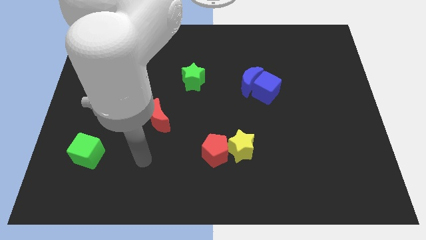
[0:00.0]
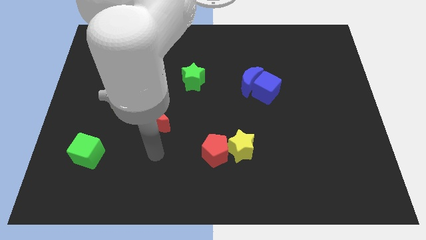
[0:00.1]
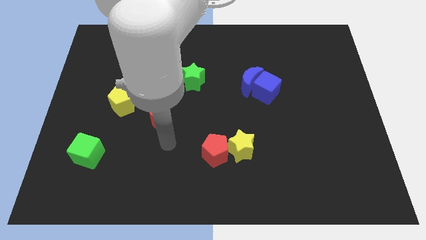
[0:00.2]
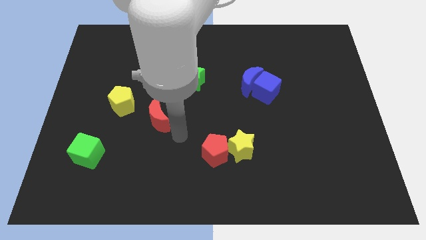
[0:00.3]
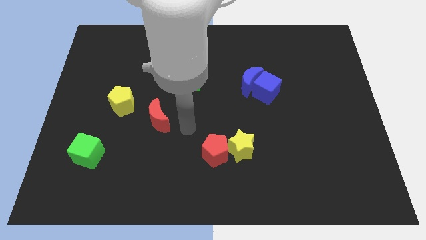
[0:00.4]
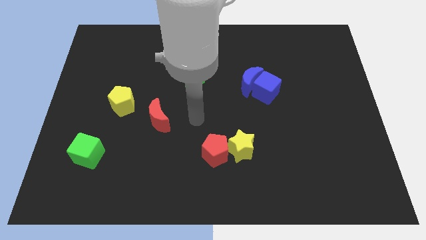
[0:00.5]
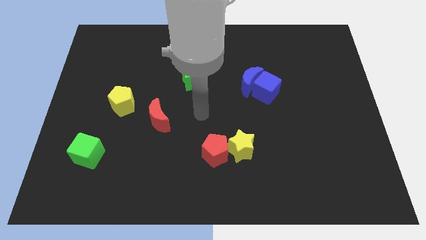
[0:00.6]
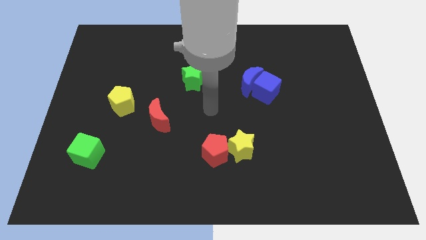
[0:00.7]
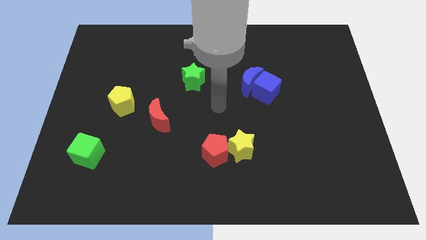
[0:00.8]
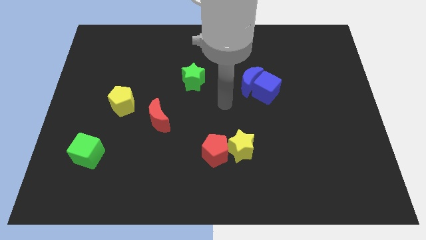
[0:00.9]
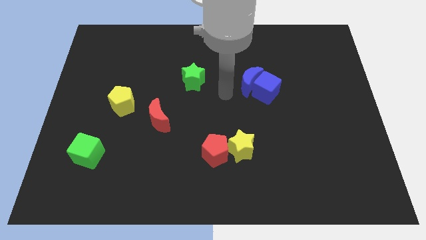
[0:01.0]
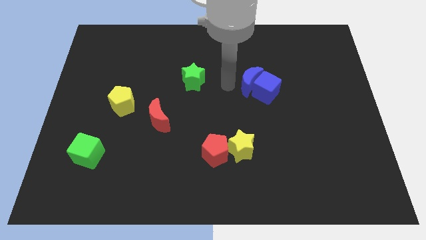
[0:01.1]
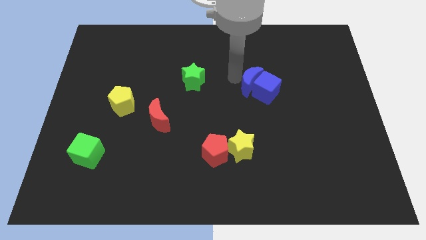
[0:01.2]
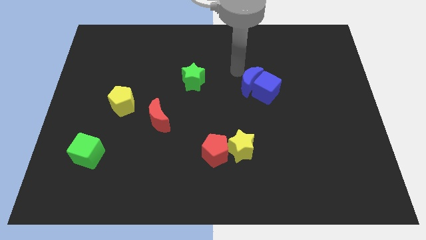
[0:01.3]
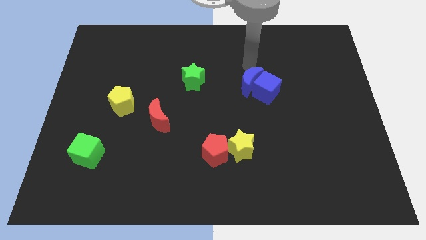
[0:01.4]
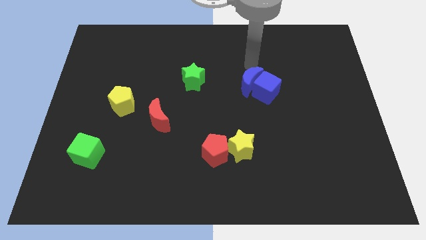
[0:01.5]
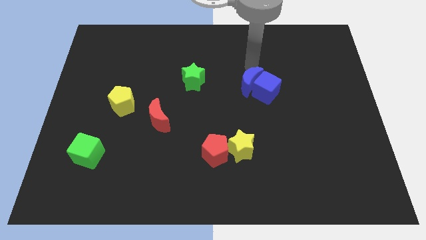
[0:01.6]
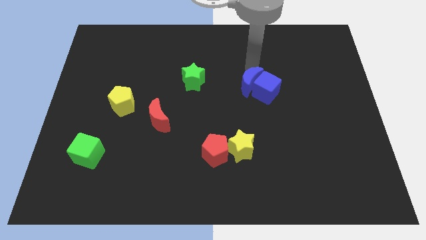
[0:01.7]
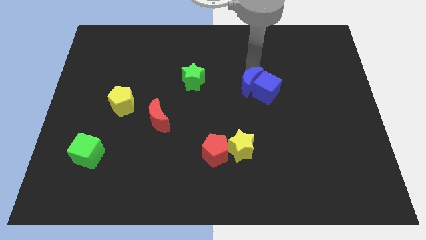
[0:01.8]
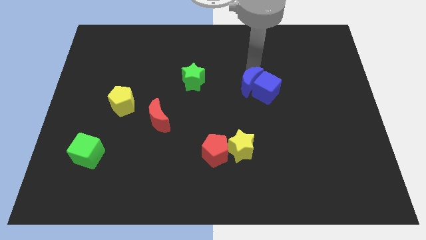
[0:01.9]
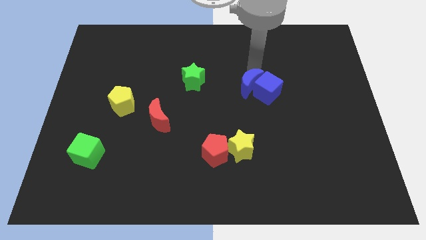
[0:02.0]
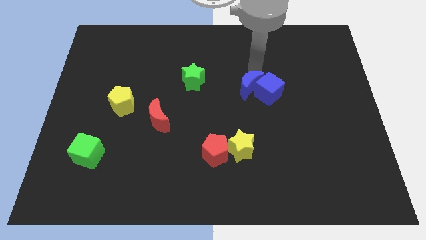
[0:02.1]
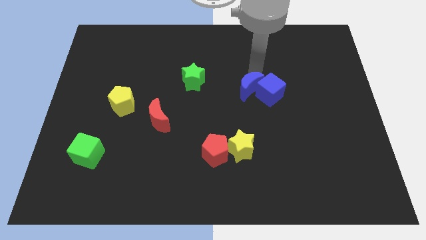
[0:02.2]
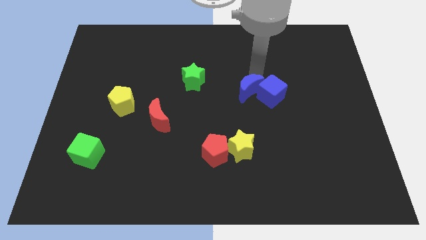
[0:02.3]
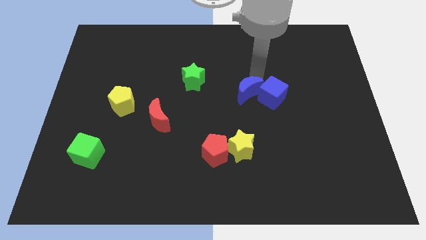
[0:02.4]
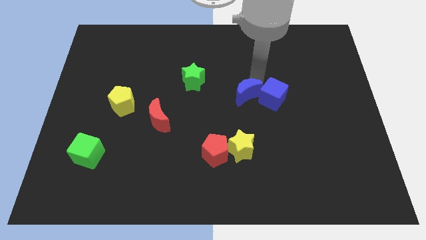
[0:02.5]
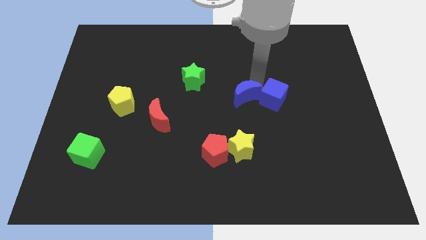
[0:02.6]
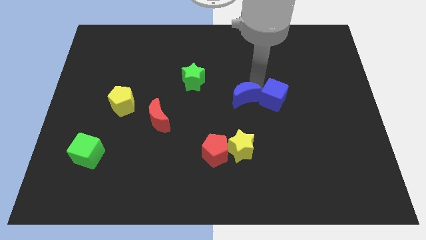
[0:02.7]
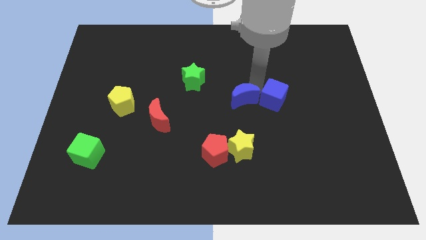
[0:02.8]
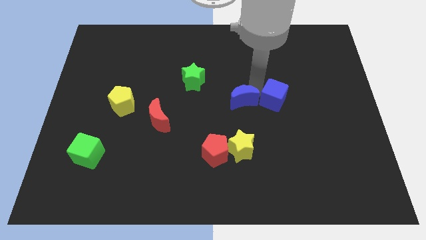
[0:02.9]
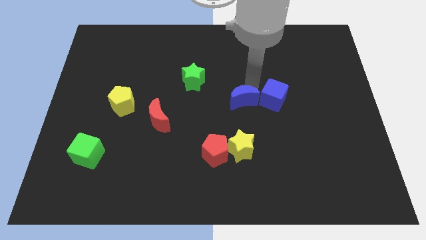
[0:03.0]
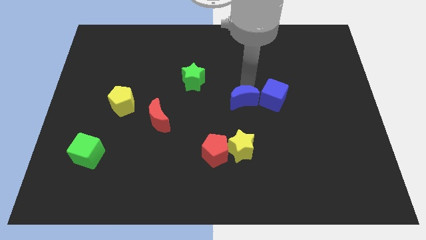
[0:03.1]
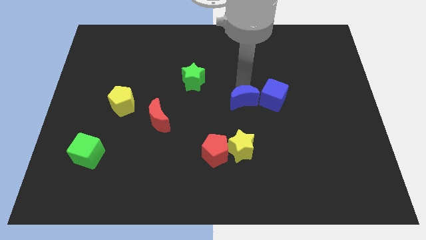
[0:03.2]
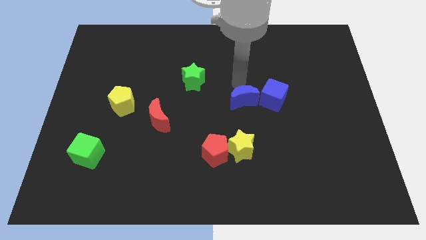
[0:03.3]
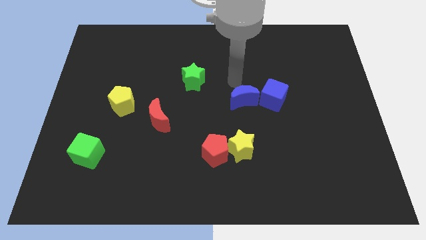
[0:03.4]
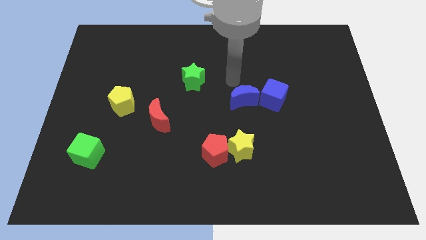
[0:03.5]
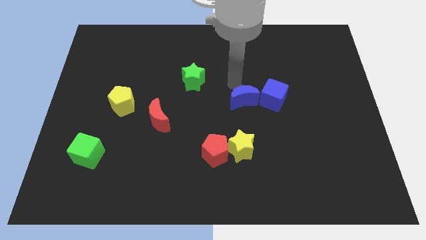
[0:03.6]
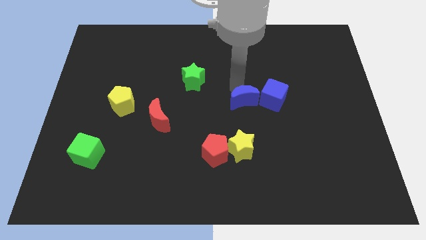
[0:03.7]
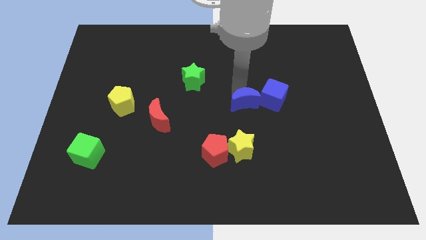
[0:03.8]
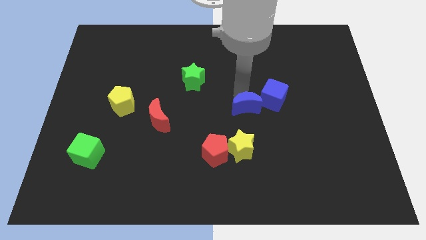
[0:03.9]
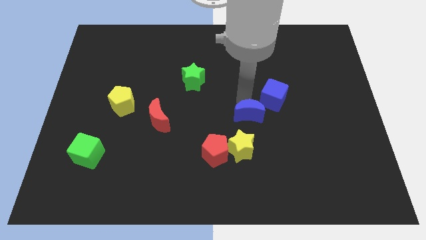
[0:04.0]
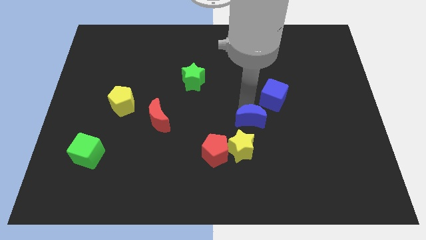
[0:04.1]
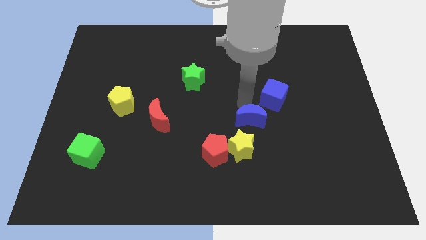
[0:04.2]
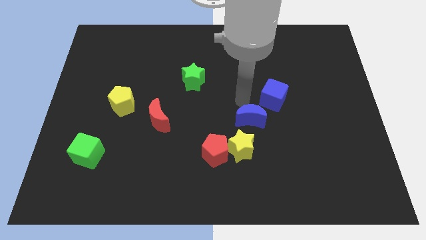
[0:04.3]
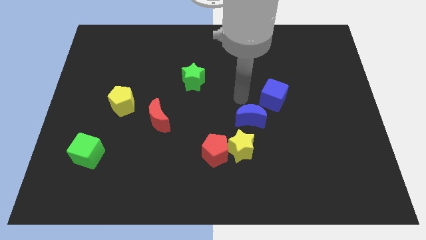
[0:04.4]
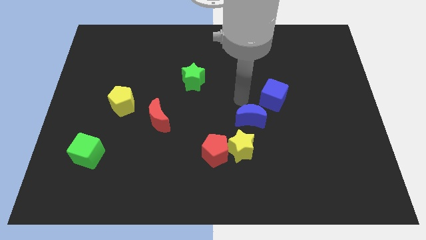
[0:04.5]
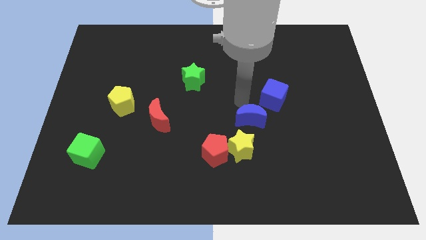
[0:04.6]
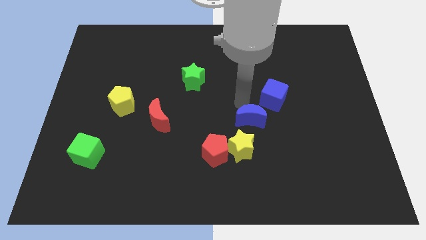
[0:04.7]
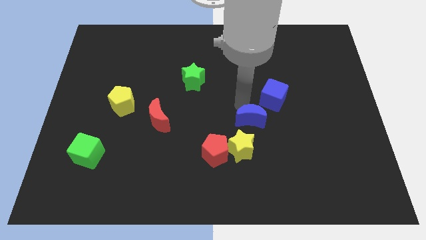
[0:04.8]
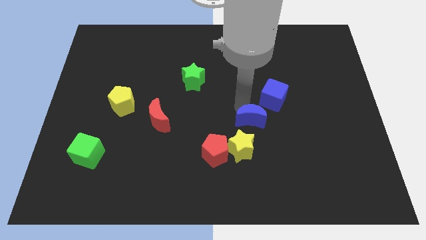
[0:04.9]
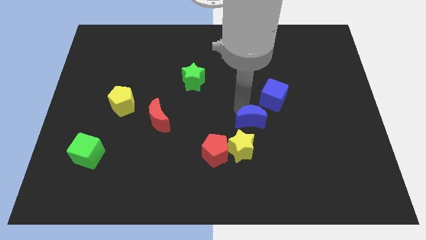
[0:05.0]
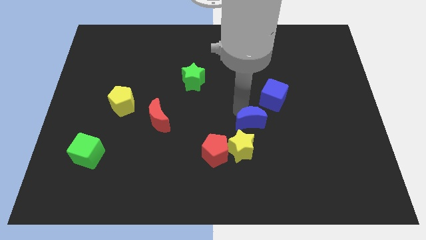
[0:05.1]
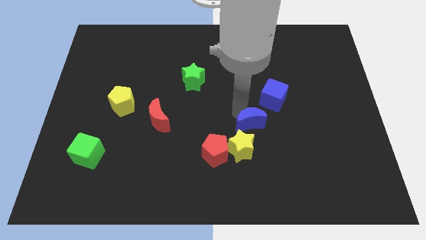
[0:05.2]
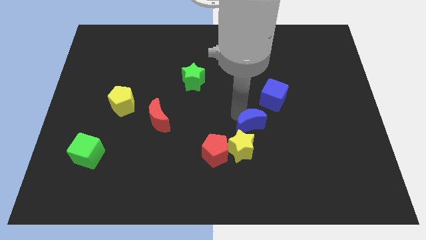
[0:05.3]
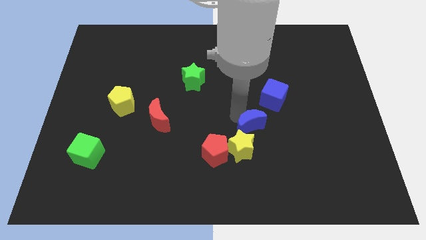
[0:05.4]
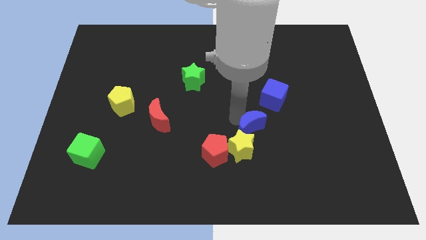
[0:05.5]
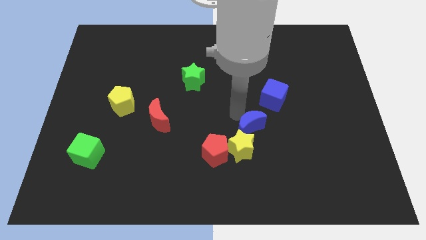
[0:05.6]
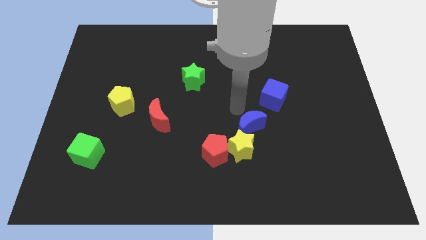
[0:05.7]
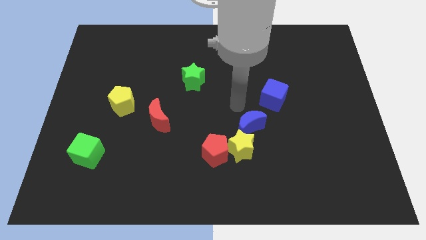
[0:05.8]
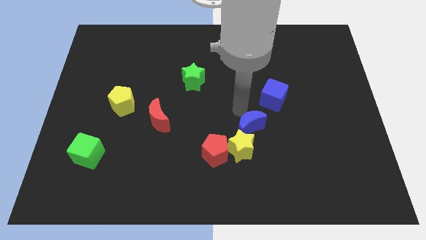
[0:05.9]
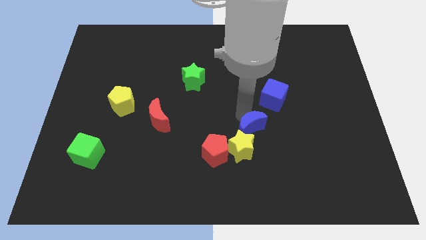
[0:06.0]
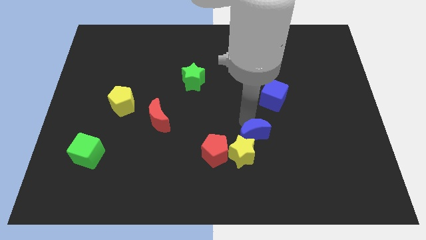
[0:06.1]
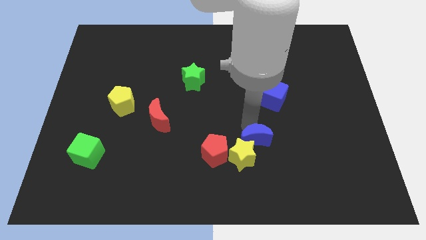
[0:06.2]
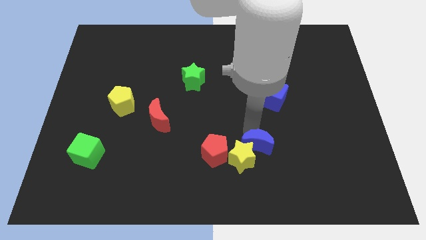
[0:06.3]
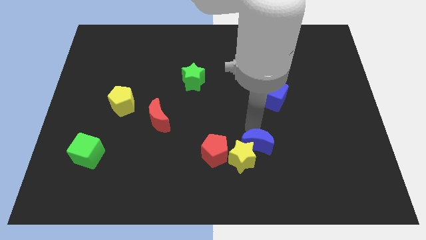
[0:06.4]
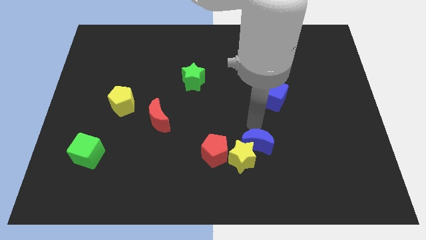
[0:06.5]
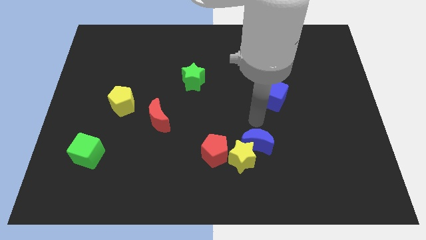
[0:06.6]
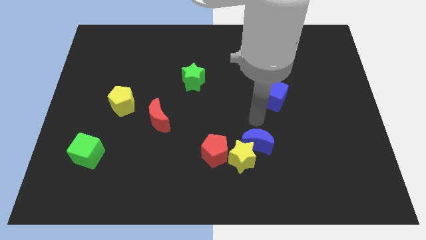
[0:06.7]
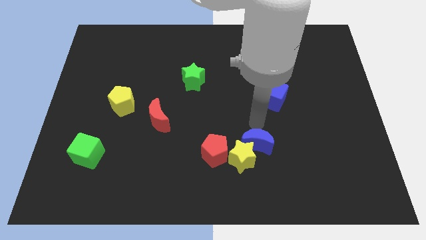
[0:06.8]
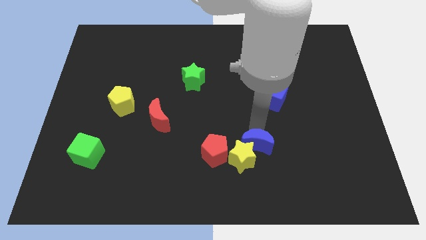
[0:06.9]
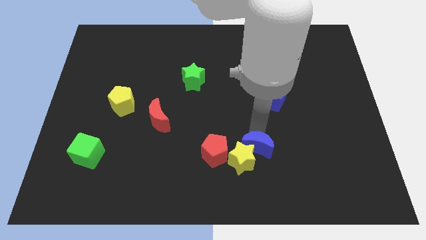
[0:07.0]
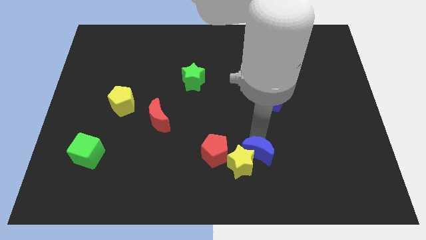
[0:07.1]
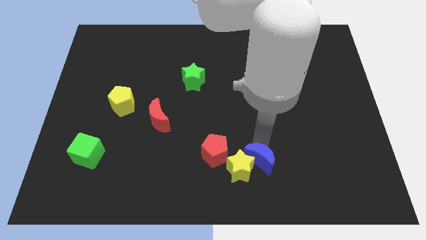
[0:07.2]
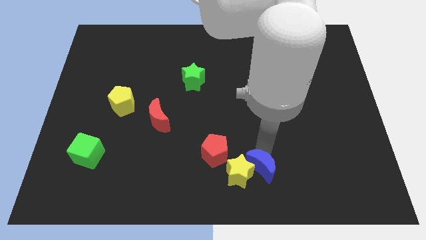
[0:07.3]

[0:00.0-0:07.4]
move the blue moon to the bottom right of the red pentagon

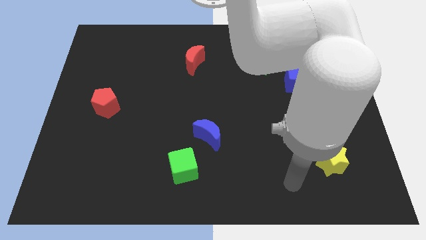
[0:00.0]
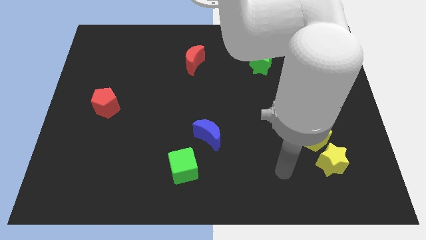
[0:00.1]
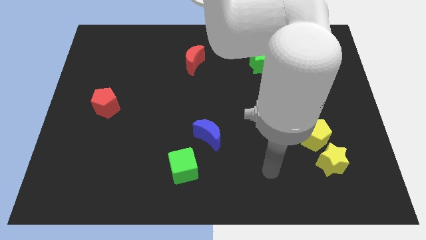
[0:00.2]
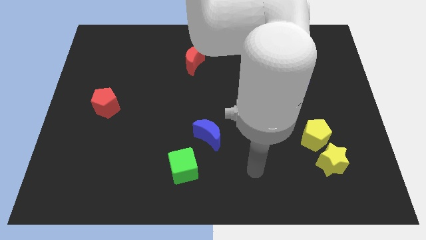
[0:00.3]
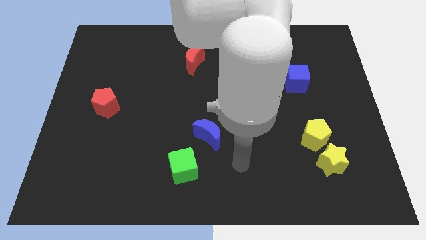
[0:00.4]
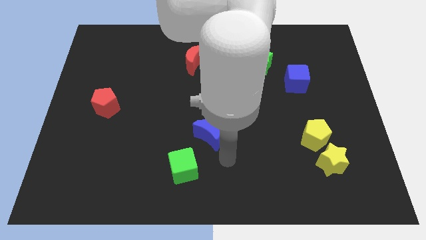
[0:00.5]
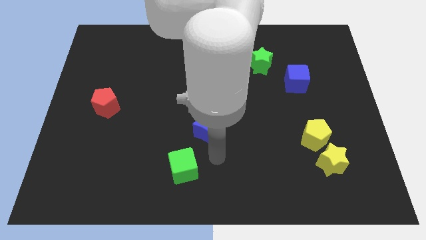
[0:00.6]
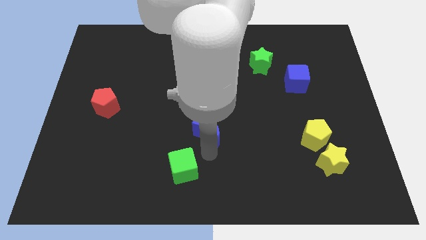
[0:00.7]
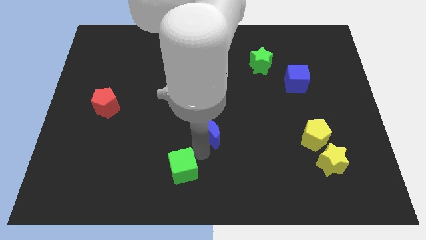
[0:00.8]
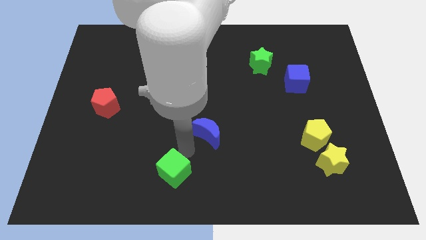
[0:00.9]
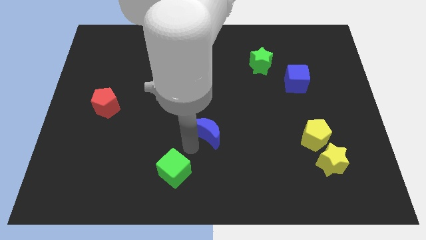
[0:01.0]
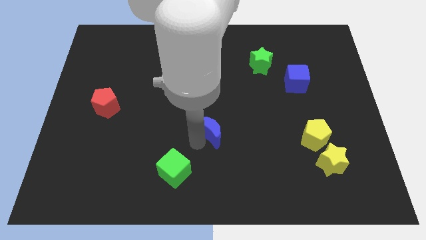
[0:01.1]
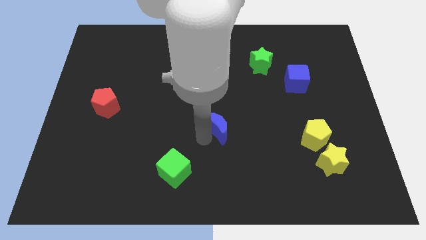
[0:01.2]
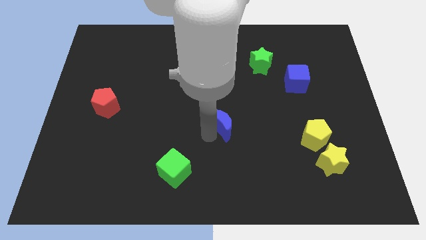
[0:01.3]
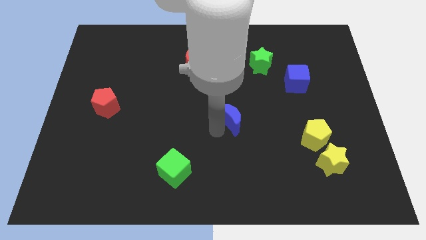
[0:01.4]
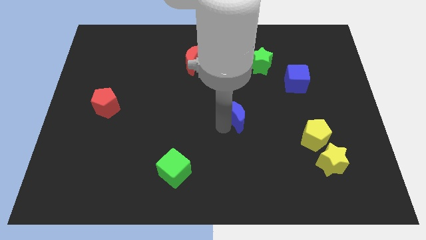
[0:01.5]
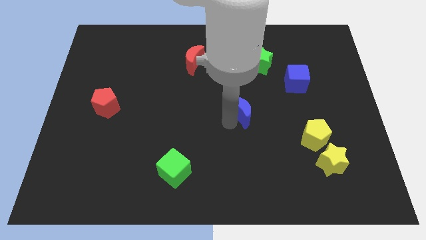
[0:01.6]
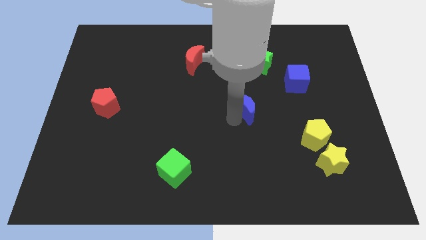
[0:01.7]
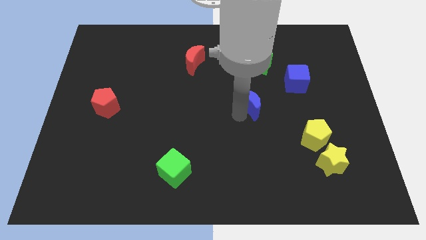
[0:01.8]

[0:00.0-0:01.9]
slide the blue moon to the bottom of the green star
